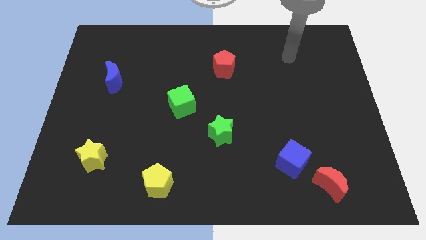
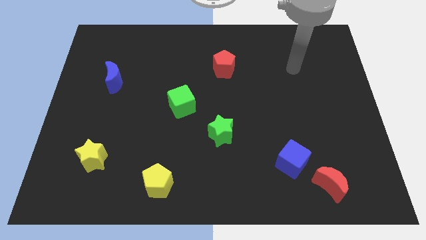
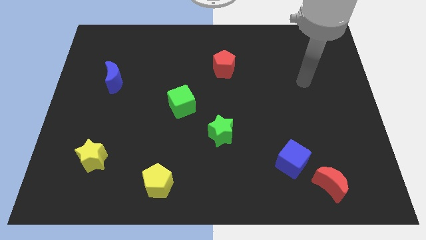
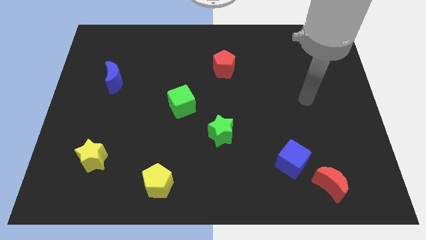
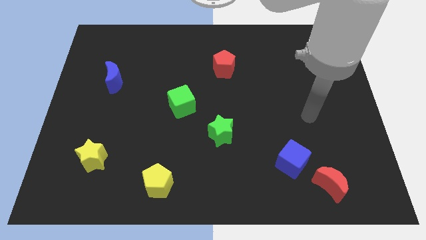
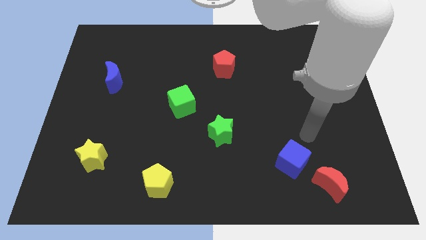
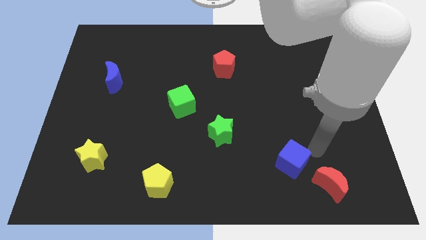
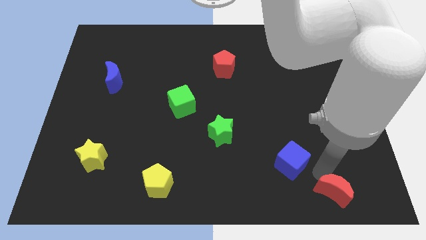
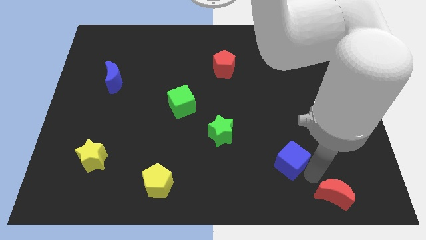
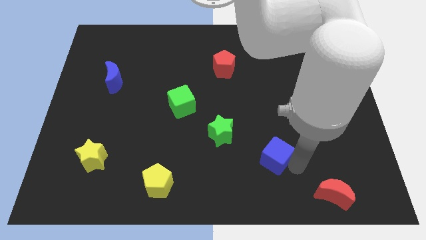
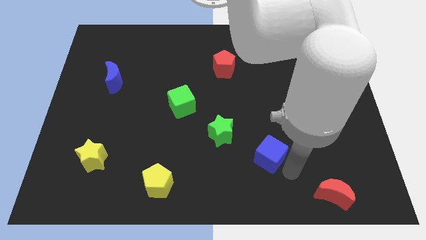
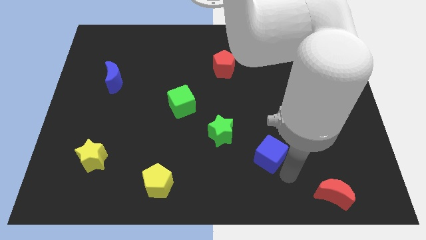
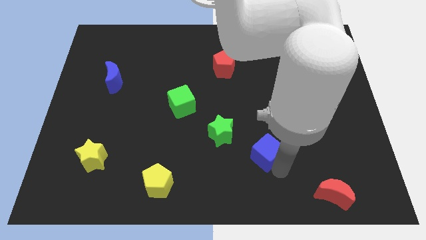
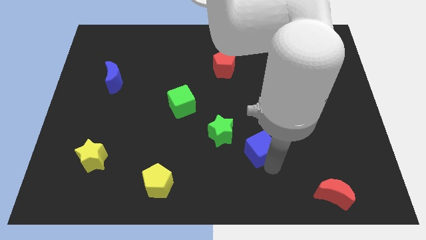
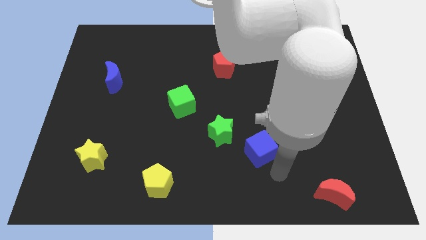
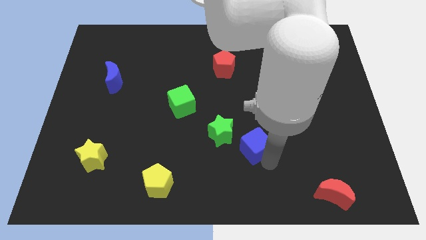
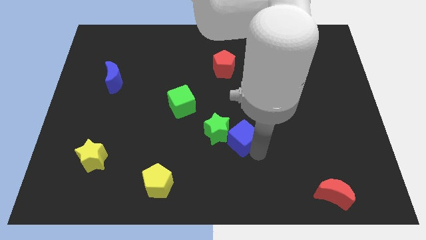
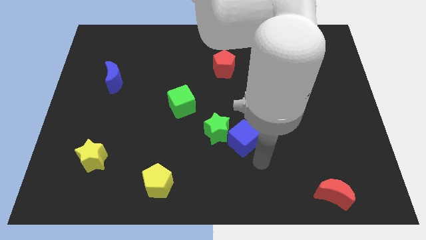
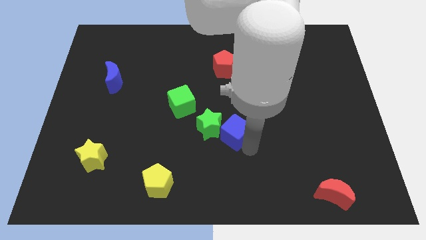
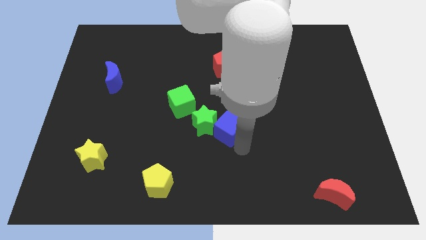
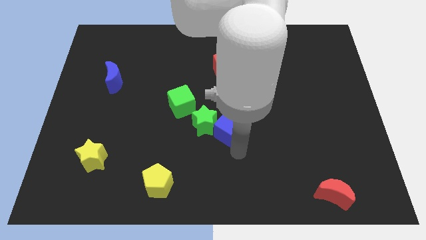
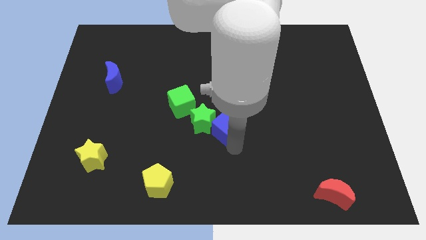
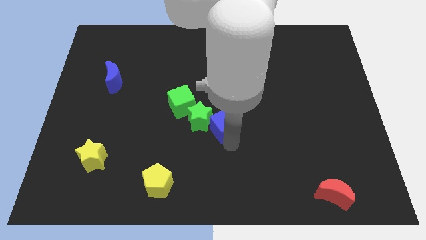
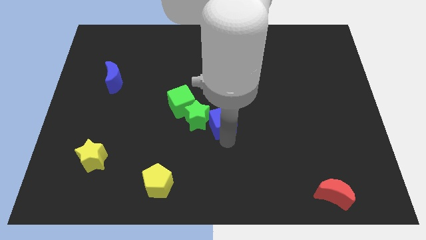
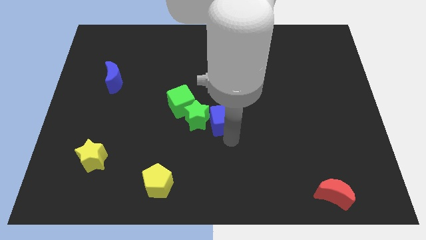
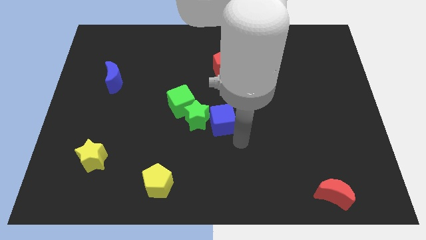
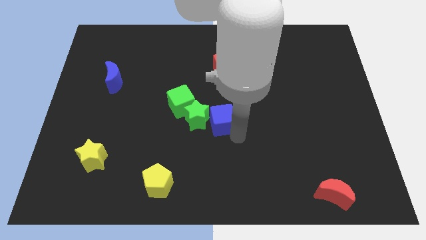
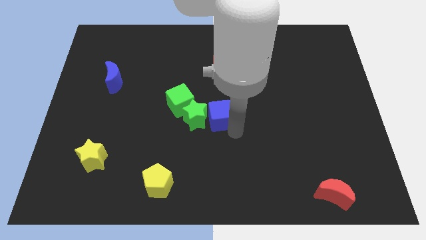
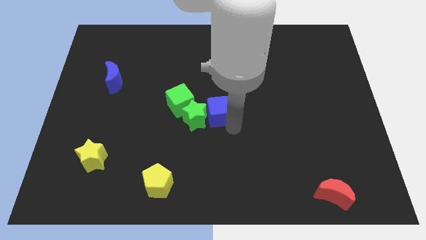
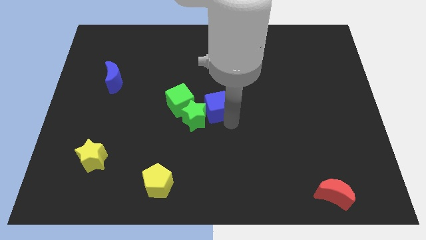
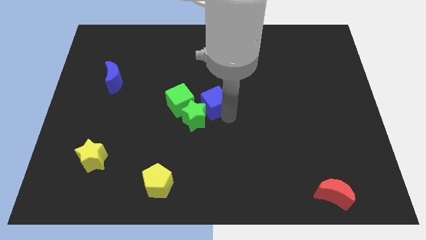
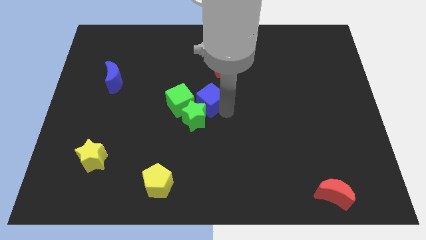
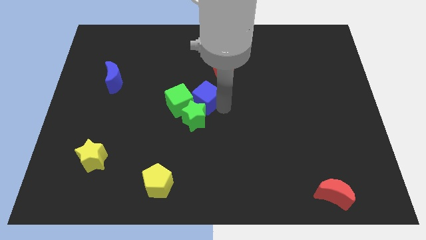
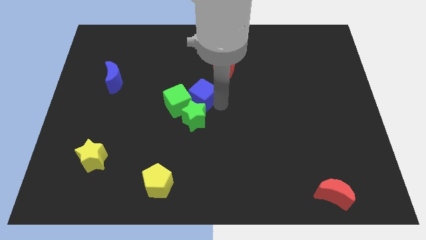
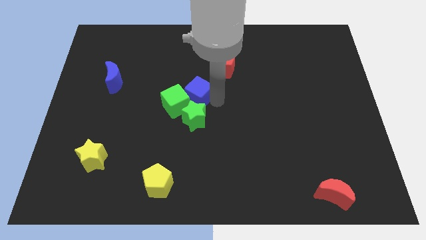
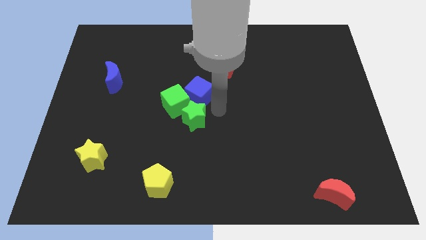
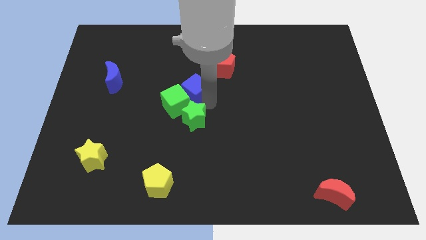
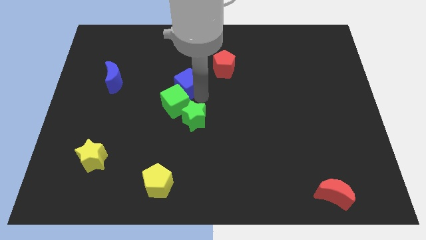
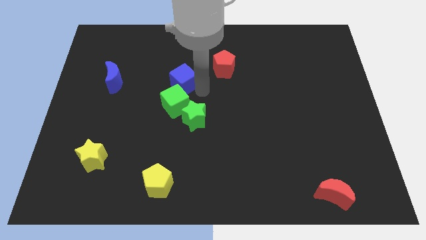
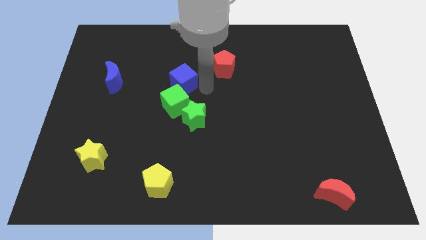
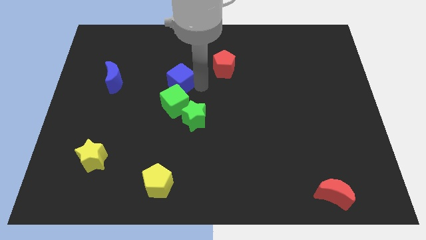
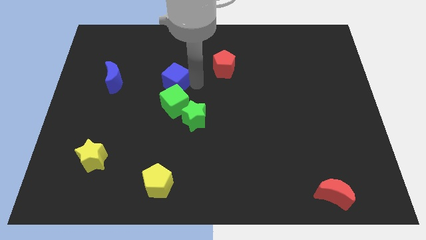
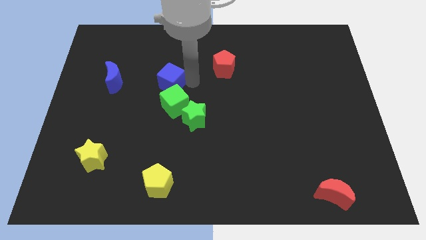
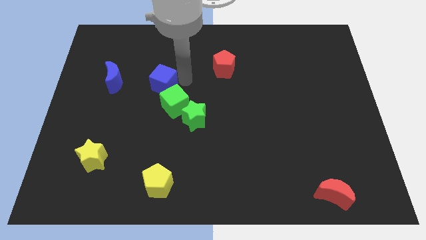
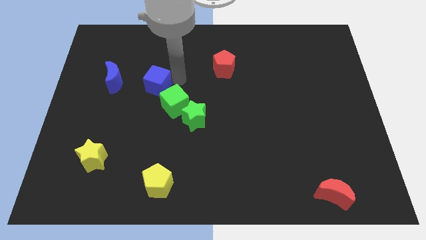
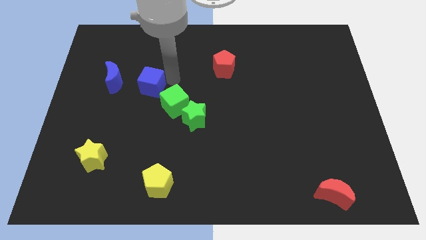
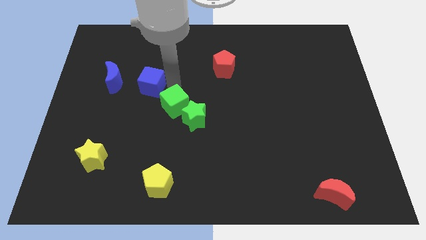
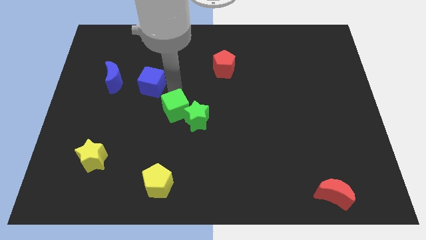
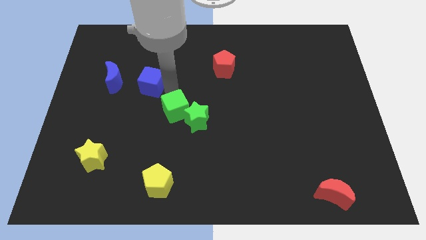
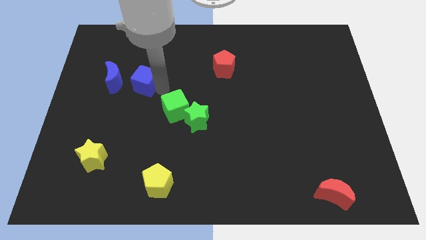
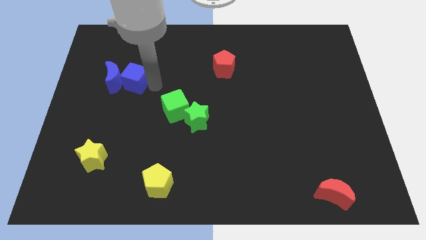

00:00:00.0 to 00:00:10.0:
move the blue cube to the blue moon

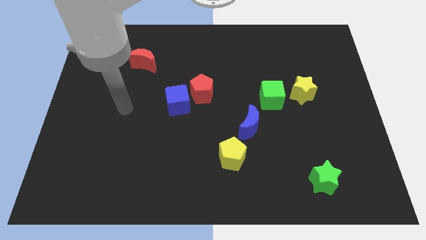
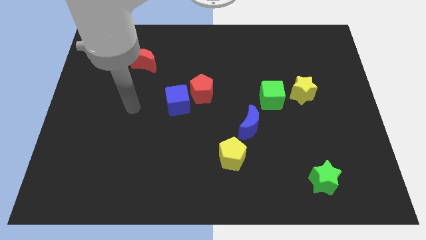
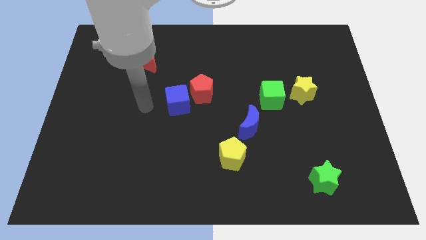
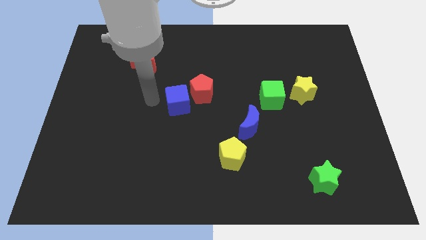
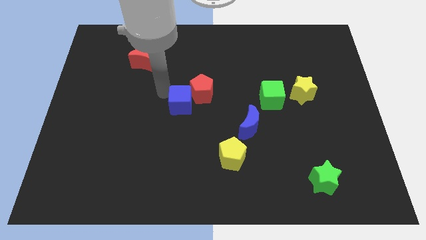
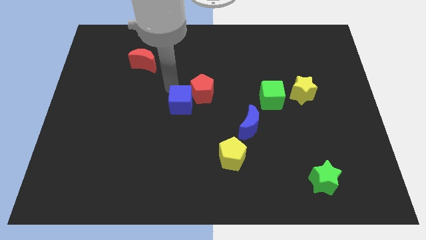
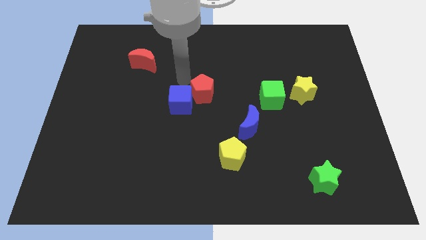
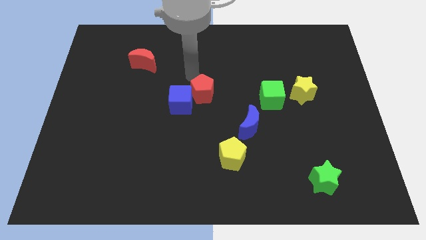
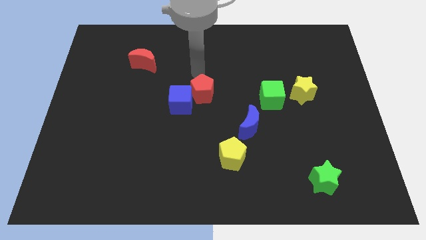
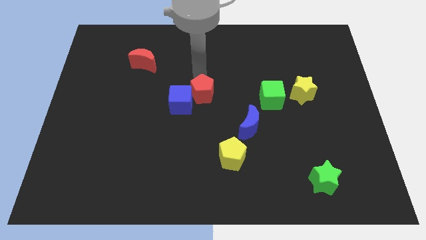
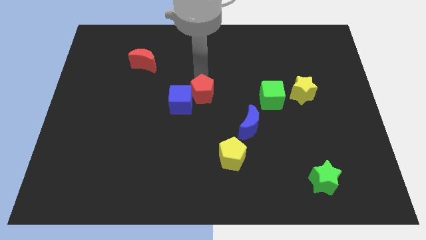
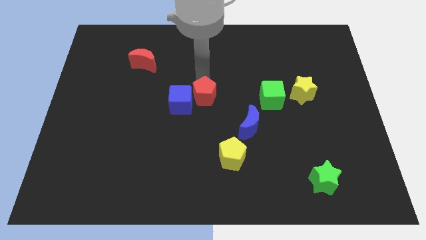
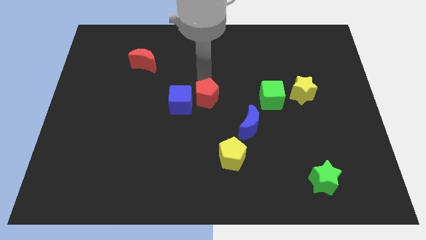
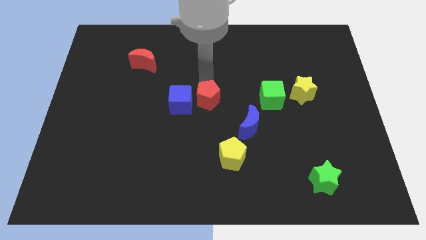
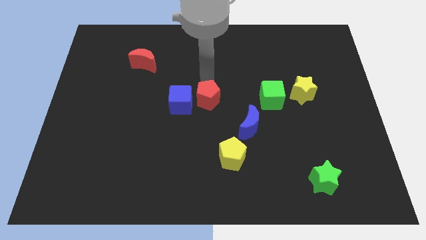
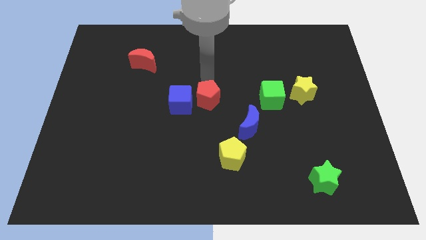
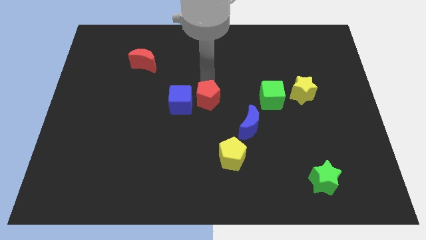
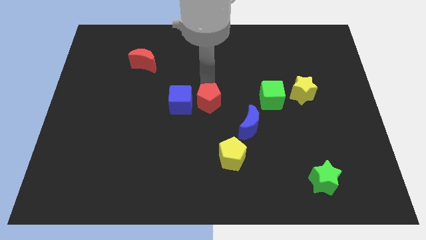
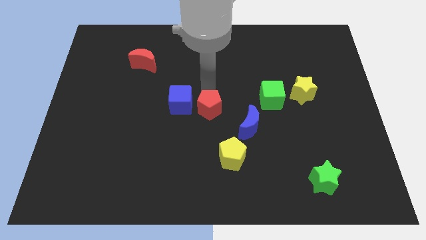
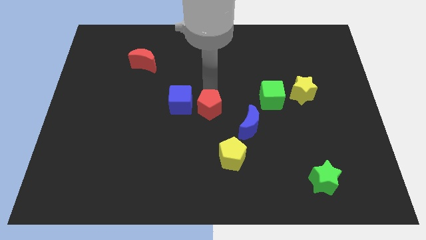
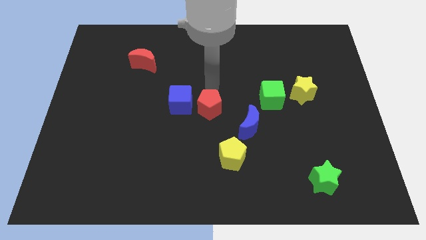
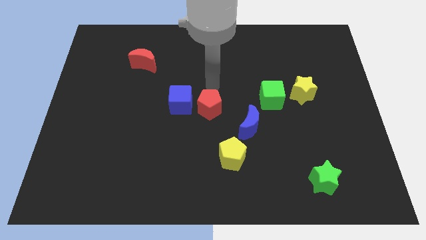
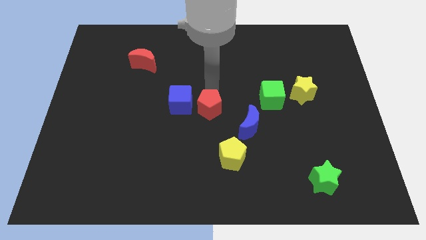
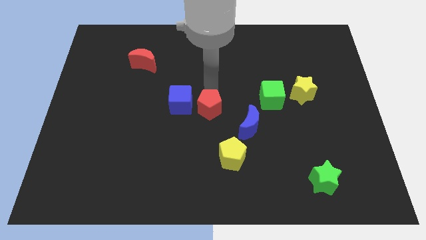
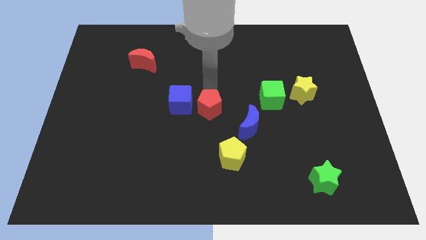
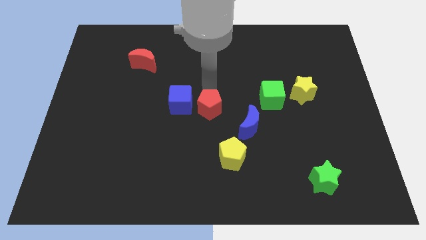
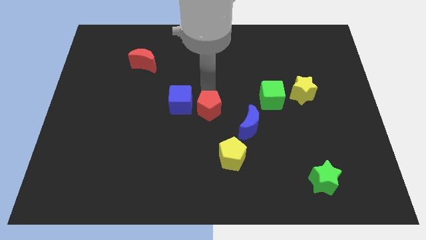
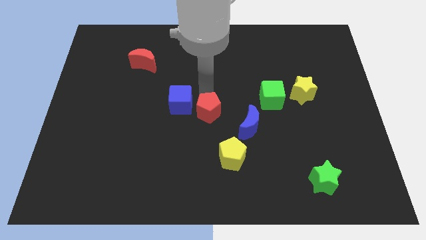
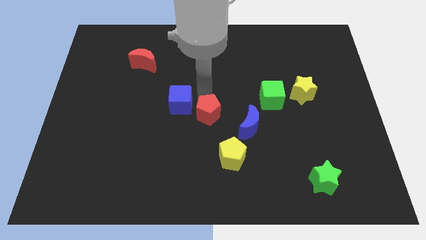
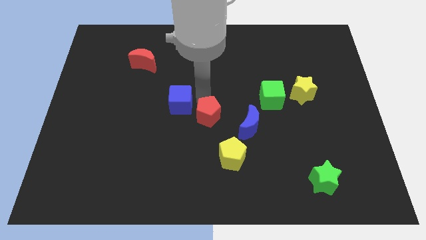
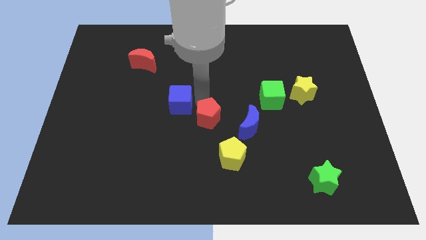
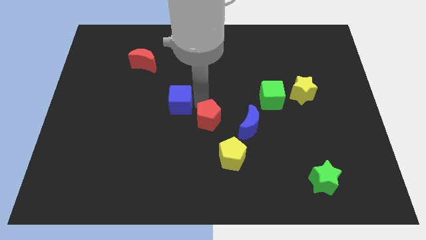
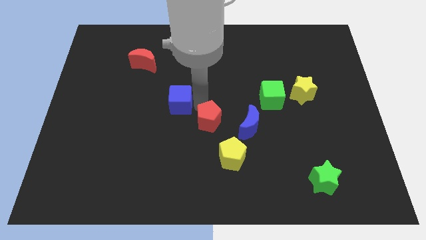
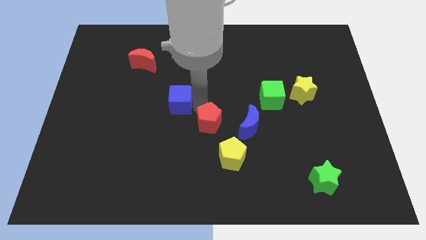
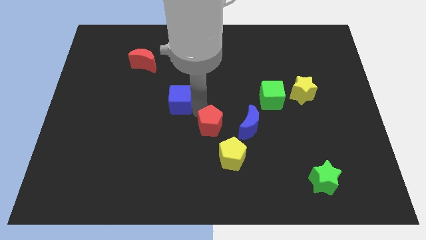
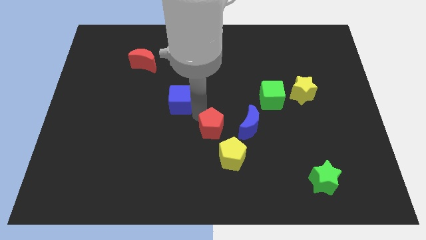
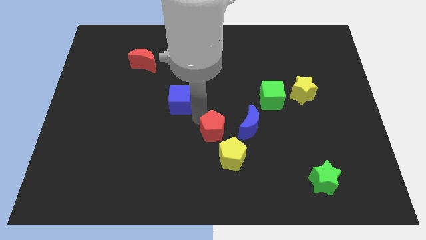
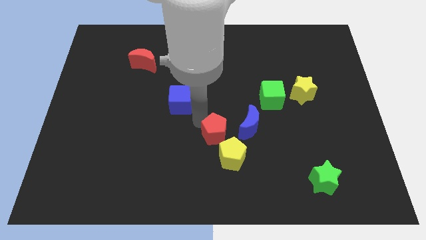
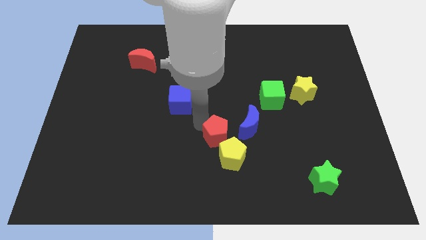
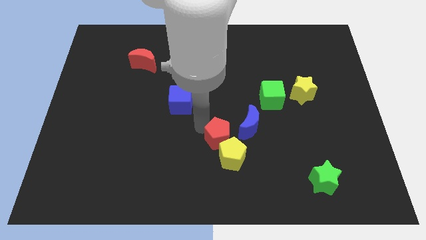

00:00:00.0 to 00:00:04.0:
push the red pentagon next to the yellow pentagon
